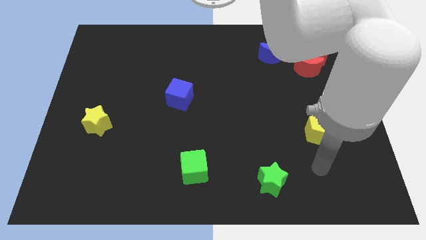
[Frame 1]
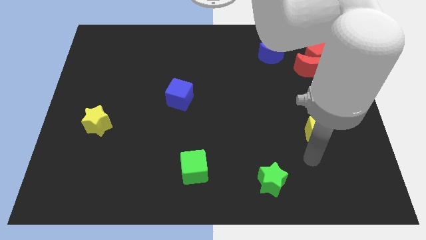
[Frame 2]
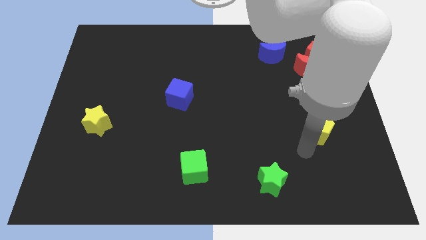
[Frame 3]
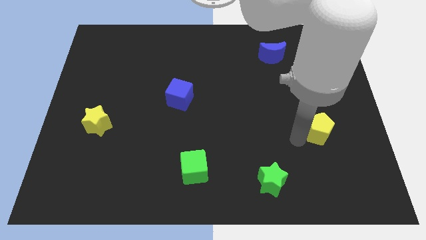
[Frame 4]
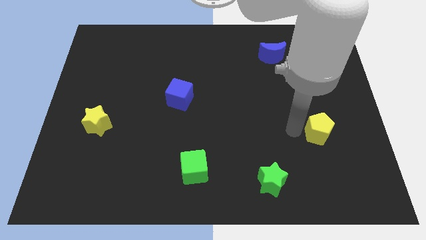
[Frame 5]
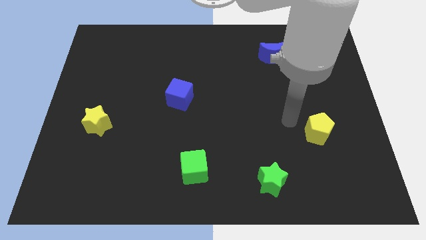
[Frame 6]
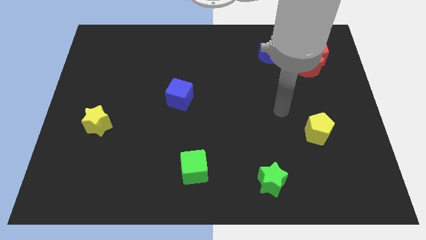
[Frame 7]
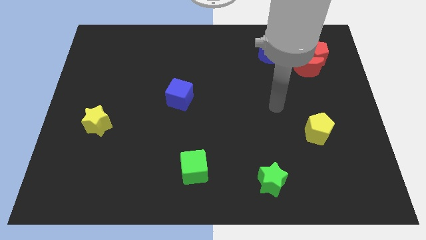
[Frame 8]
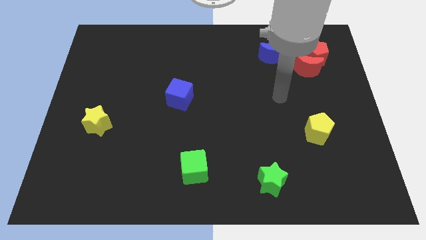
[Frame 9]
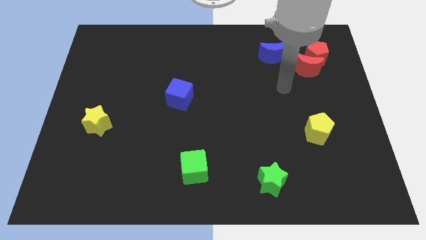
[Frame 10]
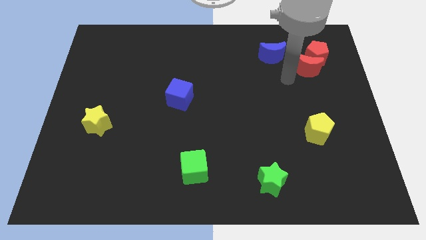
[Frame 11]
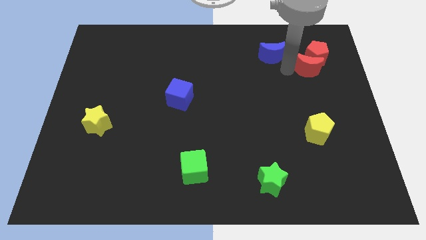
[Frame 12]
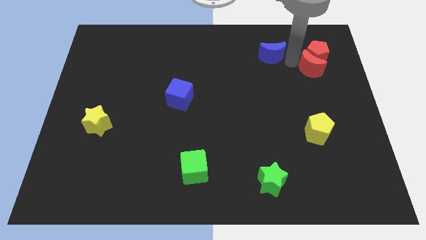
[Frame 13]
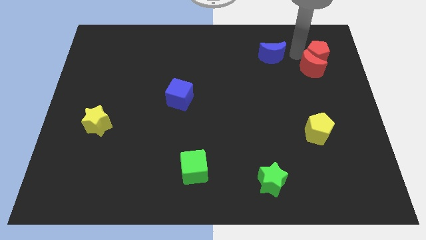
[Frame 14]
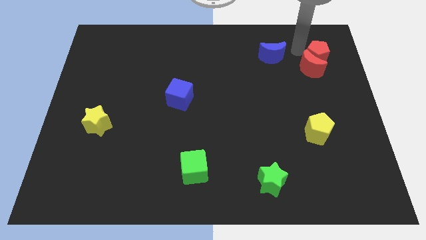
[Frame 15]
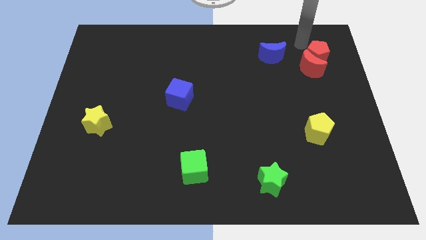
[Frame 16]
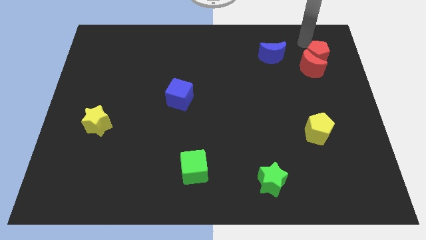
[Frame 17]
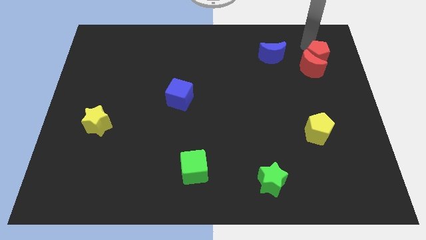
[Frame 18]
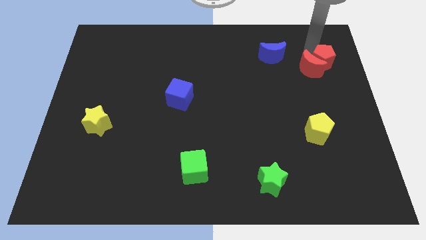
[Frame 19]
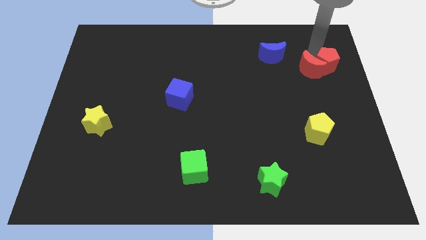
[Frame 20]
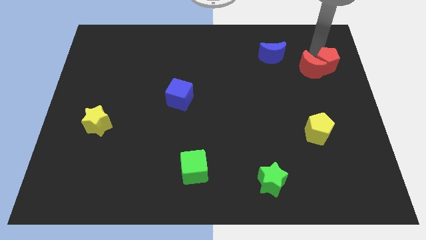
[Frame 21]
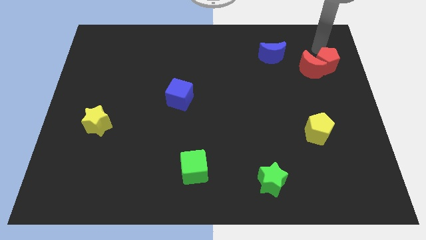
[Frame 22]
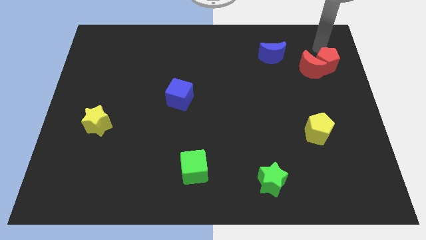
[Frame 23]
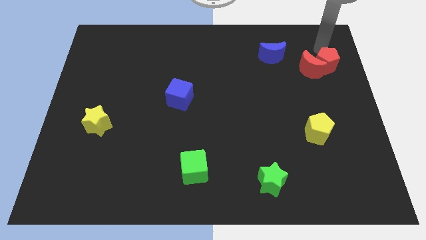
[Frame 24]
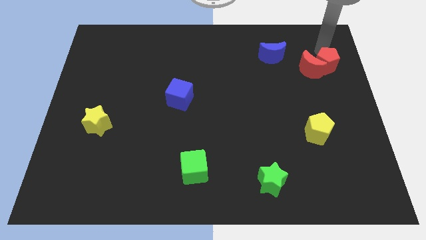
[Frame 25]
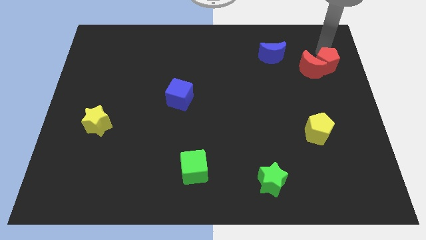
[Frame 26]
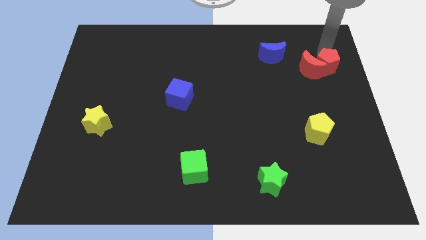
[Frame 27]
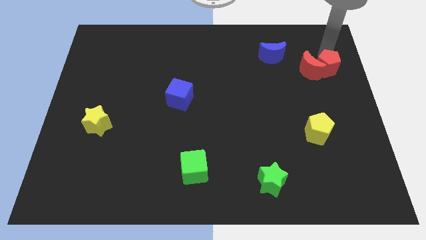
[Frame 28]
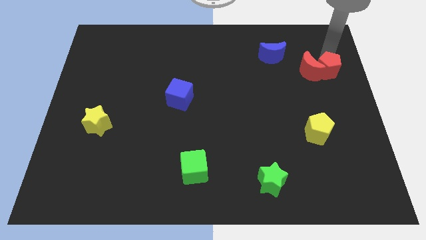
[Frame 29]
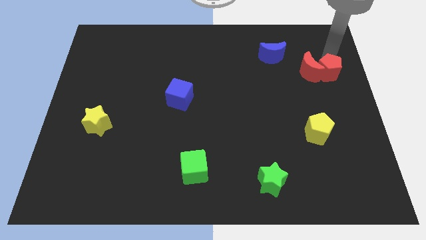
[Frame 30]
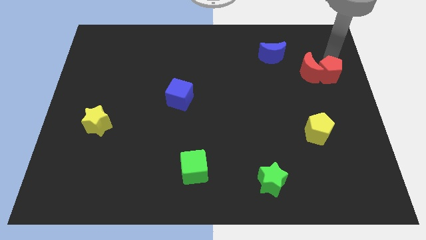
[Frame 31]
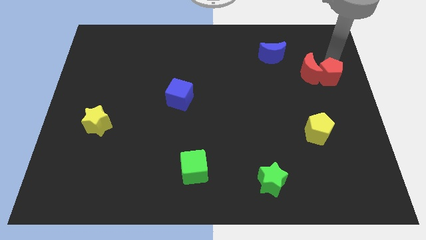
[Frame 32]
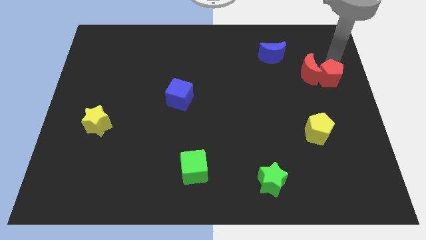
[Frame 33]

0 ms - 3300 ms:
push the red pentagon a little down

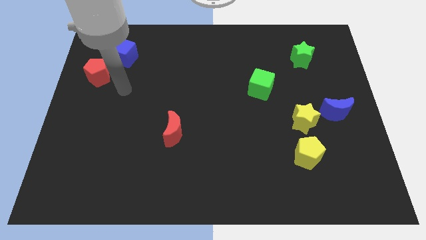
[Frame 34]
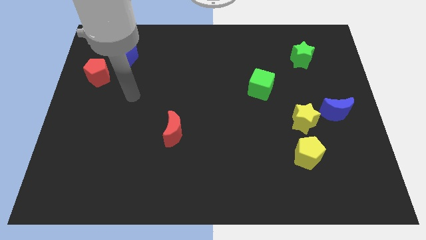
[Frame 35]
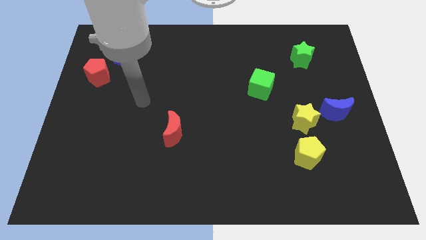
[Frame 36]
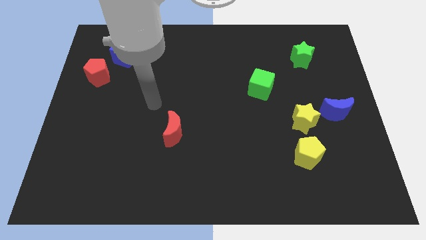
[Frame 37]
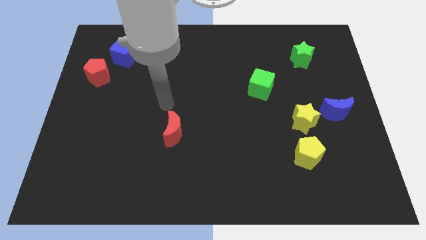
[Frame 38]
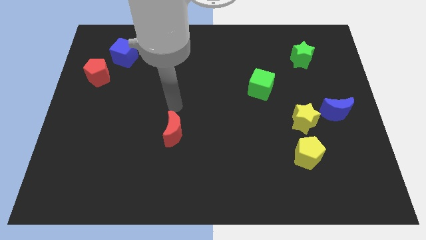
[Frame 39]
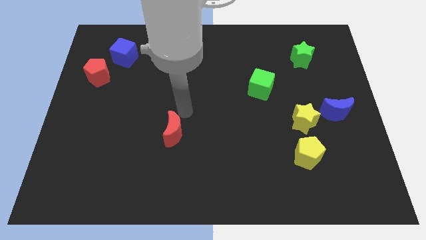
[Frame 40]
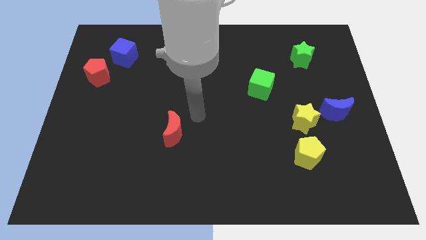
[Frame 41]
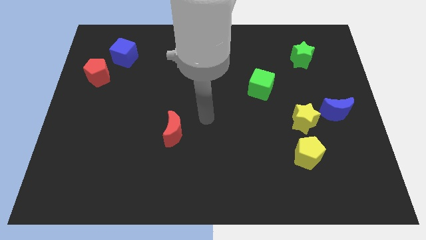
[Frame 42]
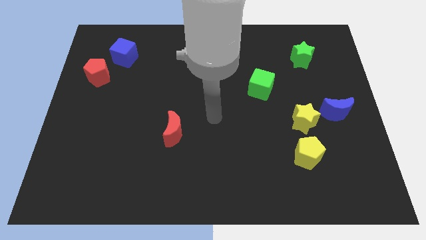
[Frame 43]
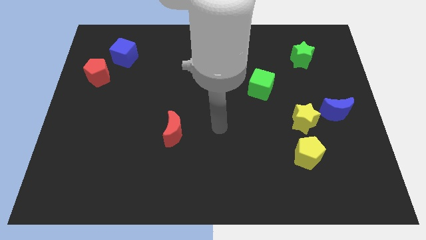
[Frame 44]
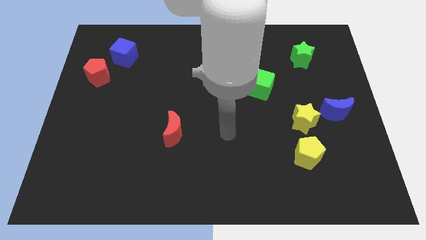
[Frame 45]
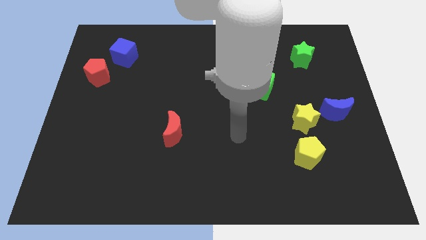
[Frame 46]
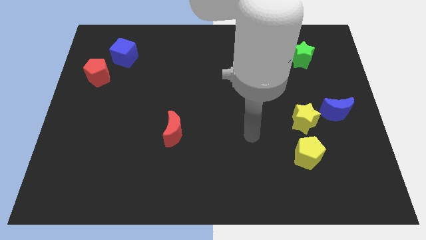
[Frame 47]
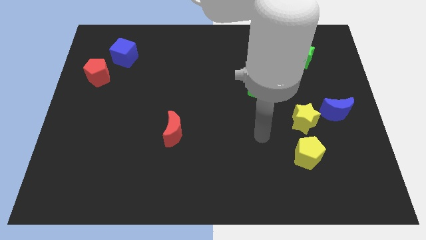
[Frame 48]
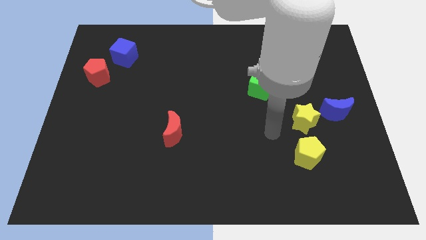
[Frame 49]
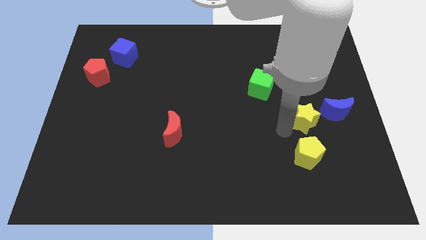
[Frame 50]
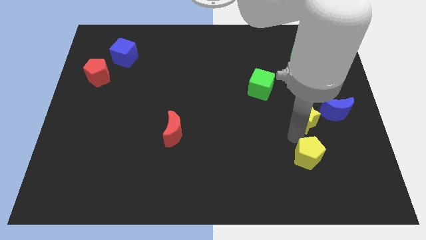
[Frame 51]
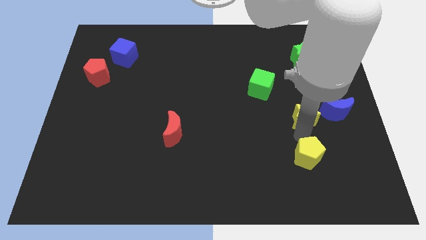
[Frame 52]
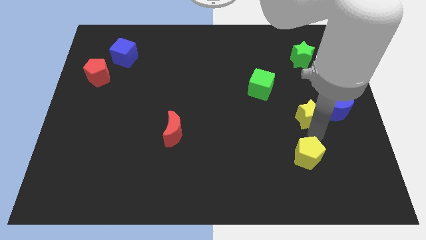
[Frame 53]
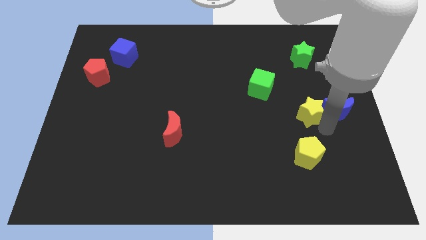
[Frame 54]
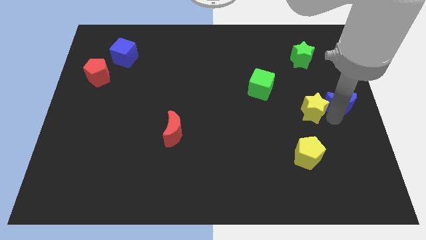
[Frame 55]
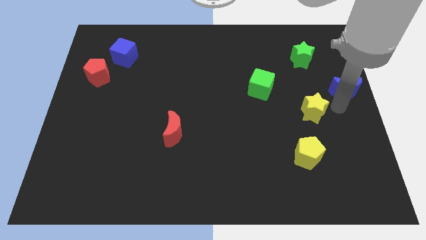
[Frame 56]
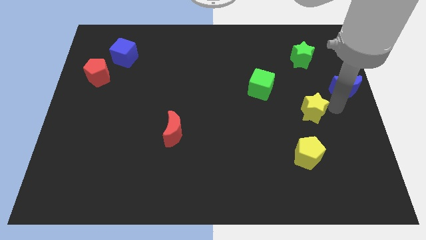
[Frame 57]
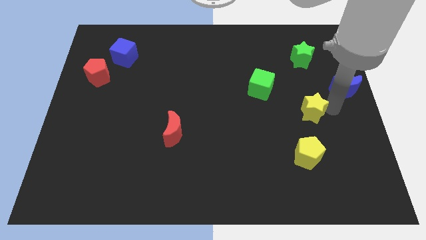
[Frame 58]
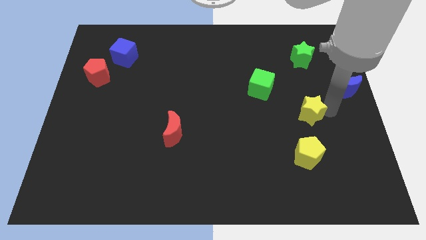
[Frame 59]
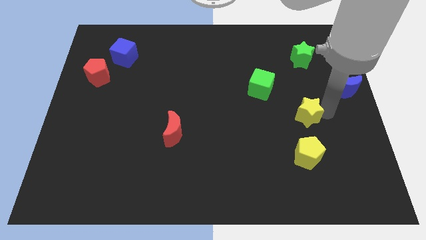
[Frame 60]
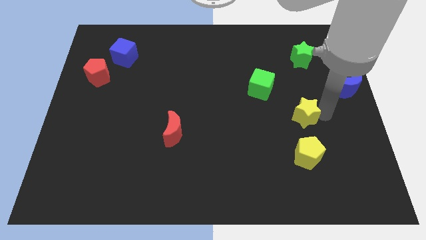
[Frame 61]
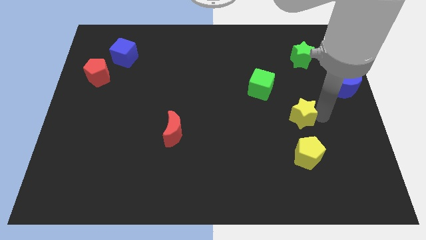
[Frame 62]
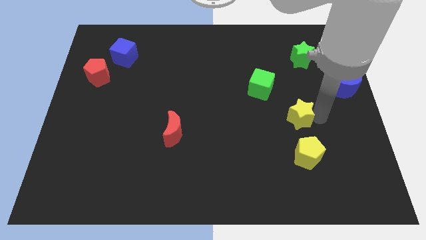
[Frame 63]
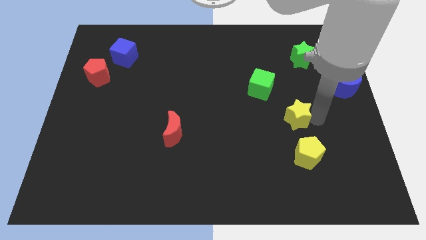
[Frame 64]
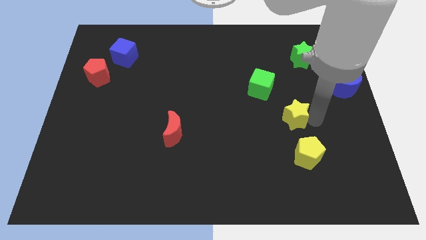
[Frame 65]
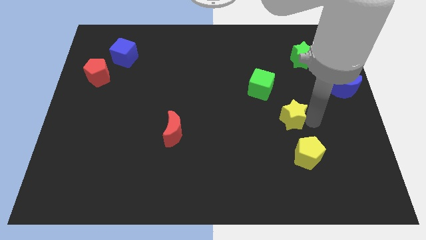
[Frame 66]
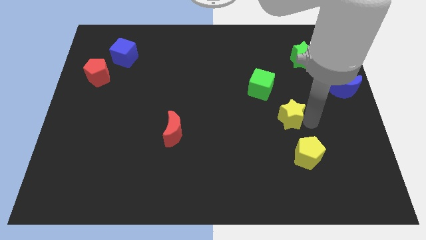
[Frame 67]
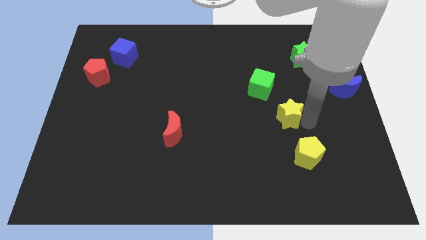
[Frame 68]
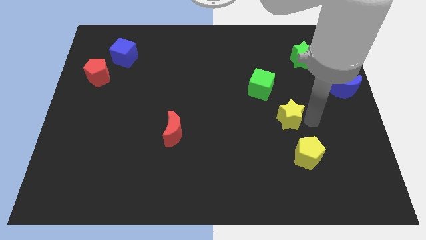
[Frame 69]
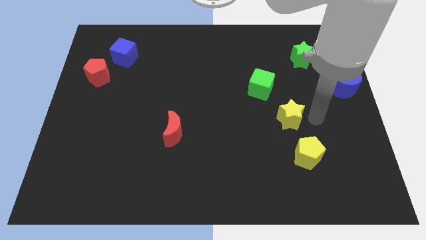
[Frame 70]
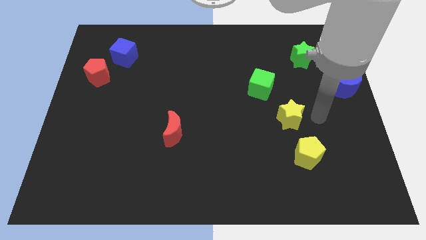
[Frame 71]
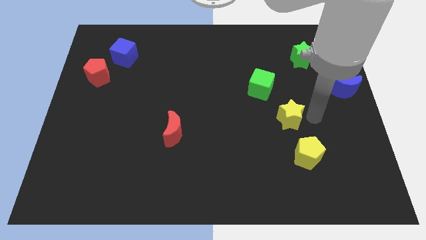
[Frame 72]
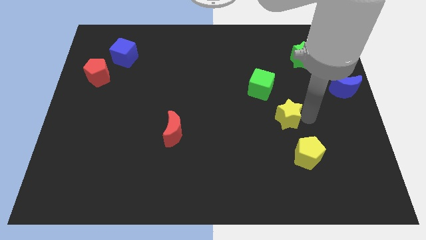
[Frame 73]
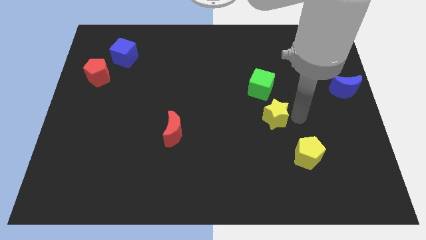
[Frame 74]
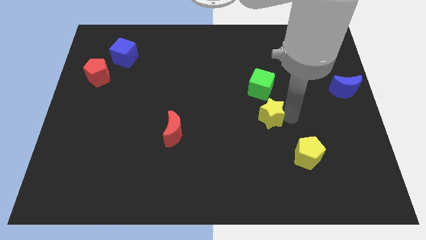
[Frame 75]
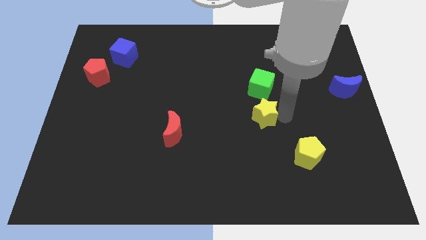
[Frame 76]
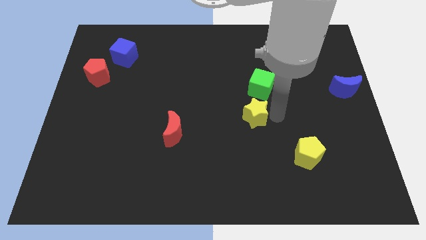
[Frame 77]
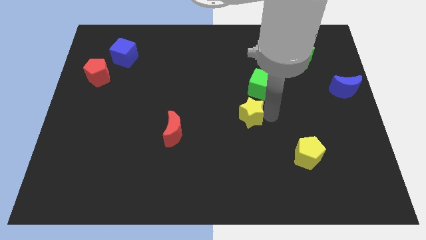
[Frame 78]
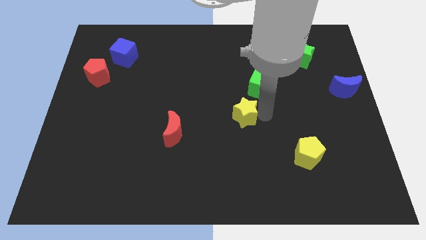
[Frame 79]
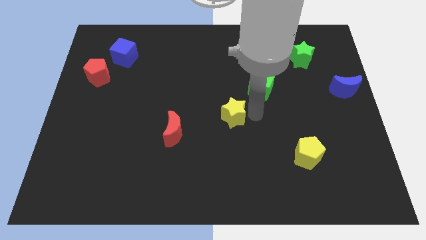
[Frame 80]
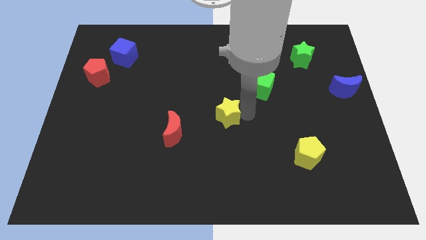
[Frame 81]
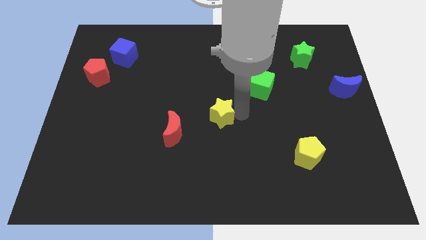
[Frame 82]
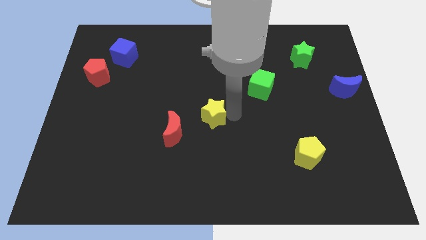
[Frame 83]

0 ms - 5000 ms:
slide the yellow star left

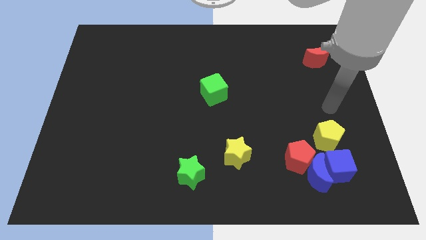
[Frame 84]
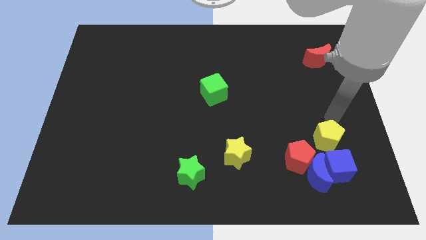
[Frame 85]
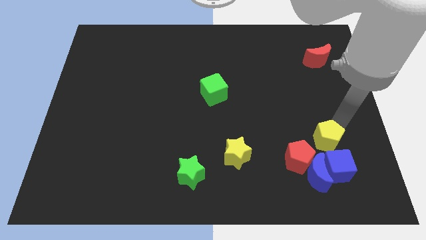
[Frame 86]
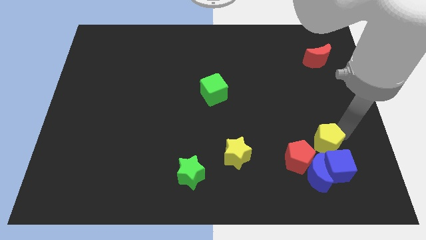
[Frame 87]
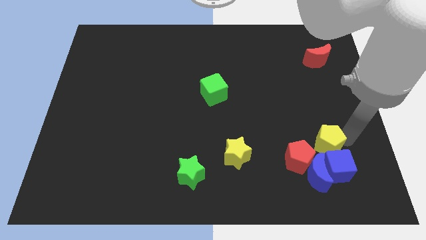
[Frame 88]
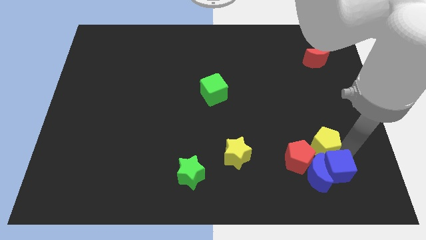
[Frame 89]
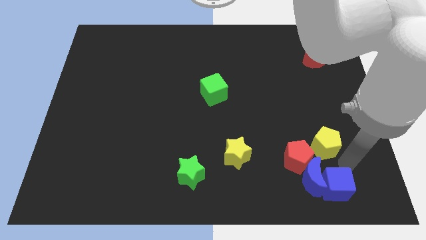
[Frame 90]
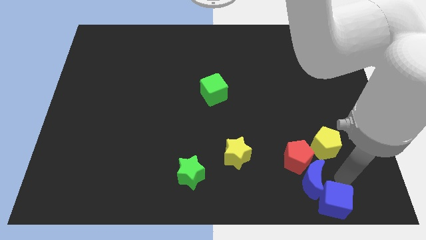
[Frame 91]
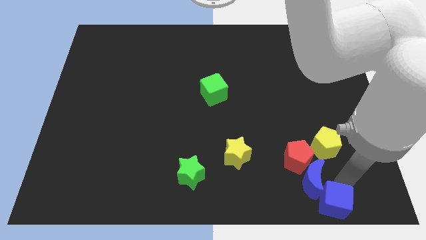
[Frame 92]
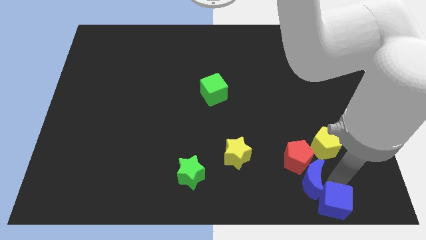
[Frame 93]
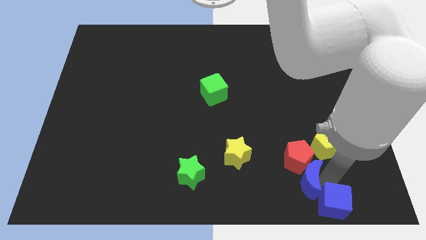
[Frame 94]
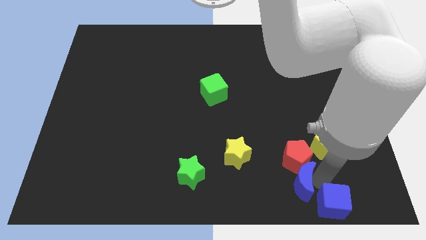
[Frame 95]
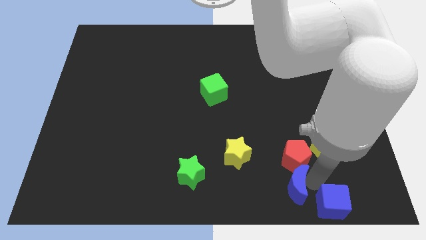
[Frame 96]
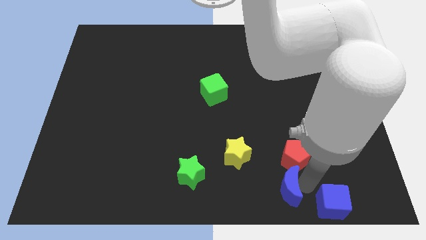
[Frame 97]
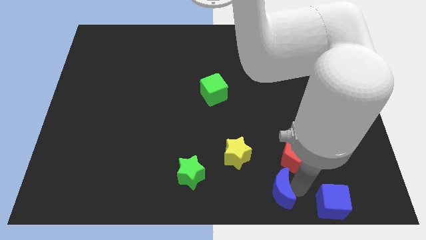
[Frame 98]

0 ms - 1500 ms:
move the blue moon left somewhat
